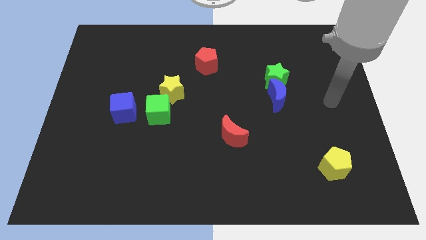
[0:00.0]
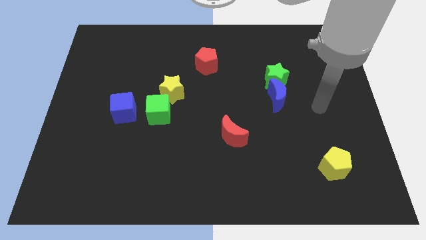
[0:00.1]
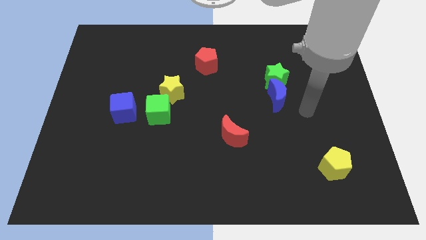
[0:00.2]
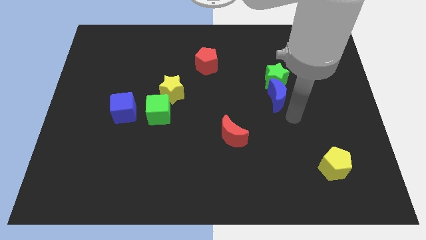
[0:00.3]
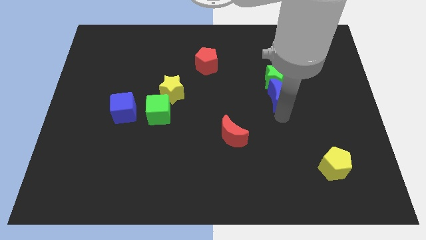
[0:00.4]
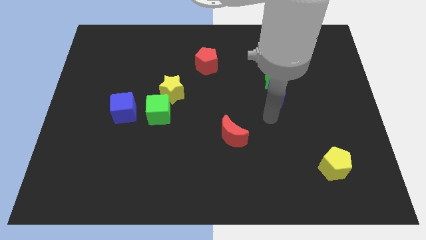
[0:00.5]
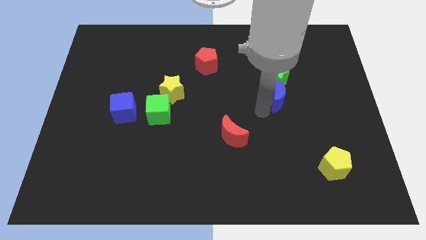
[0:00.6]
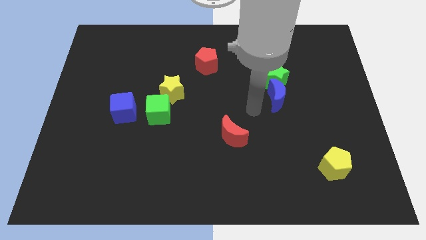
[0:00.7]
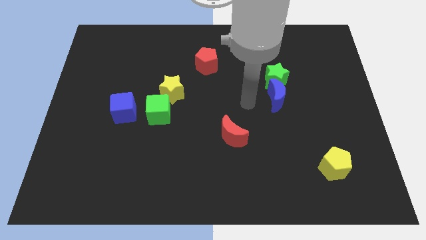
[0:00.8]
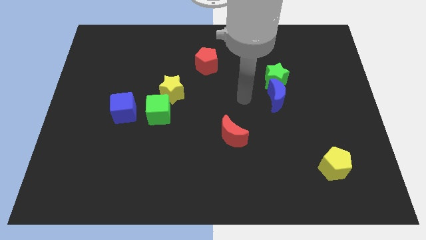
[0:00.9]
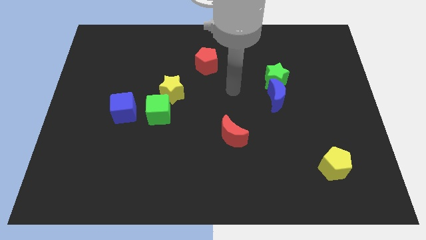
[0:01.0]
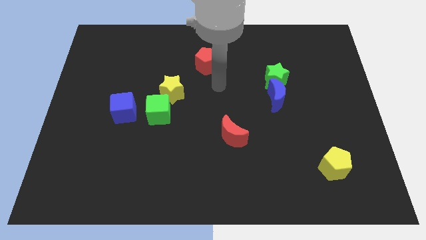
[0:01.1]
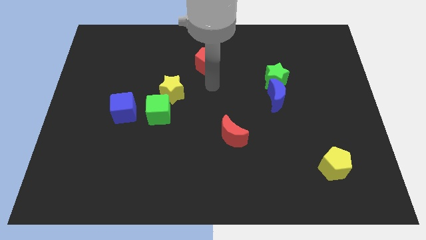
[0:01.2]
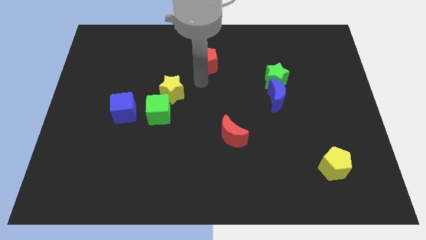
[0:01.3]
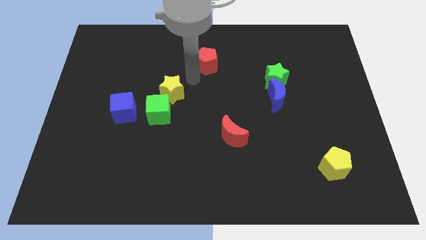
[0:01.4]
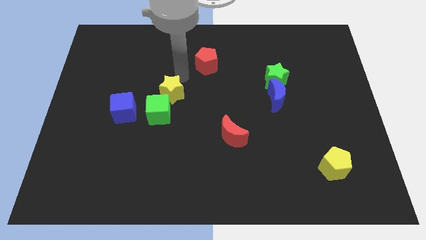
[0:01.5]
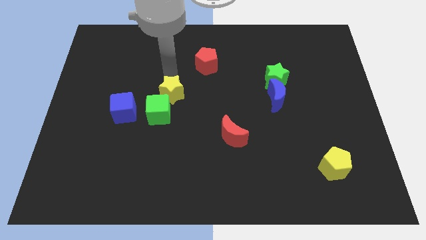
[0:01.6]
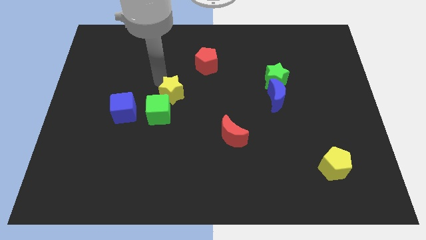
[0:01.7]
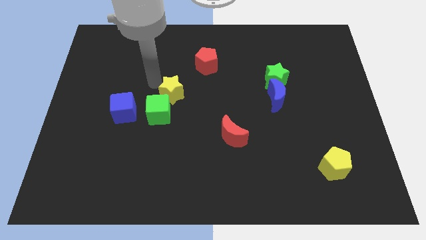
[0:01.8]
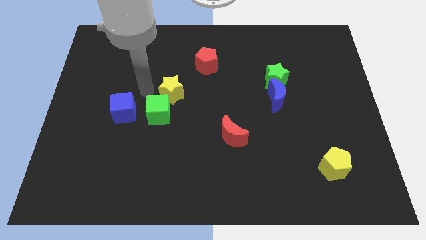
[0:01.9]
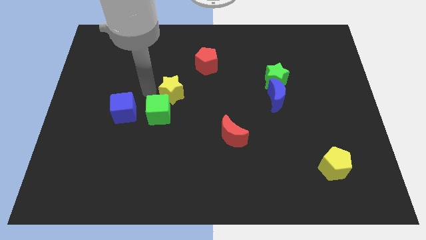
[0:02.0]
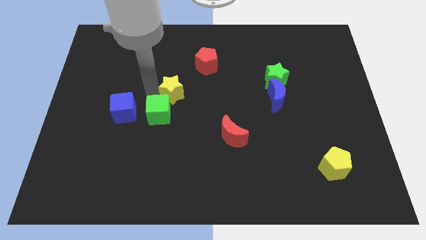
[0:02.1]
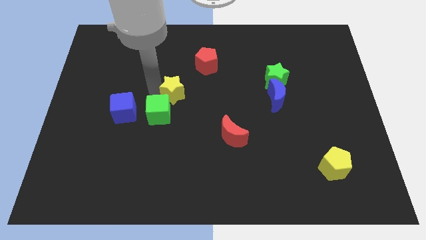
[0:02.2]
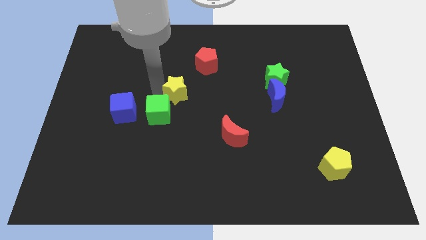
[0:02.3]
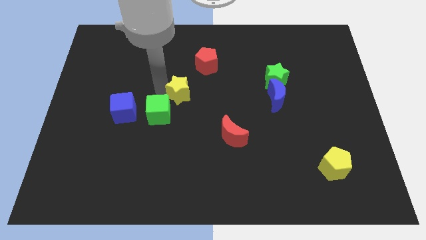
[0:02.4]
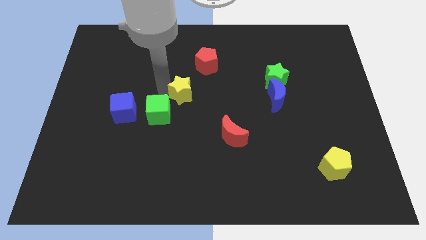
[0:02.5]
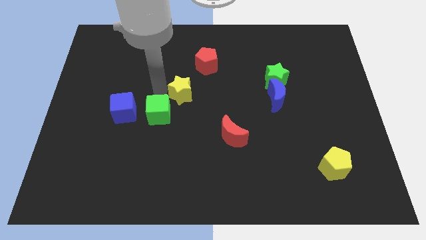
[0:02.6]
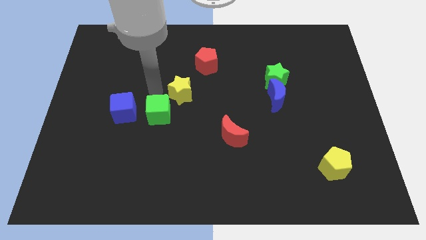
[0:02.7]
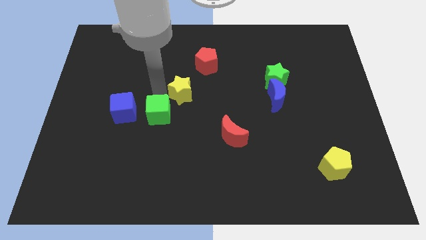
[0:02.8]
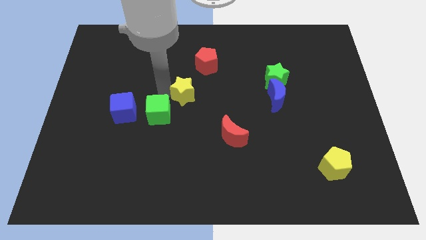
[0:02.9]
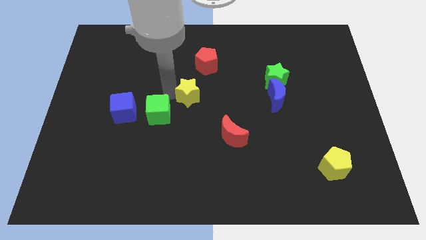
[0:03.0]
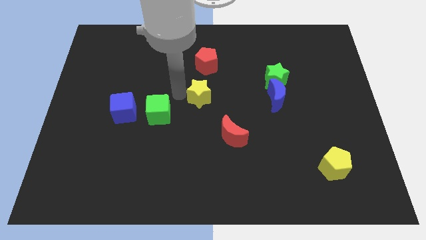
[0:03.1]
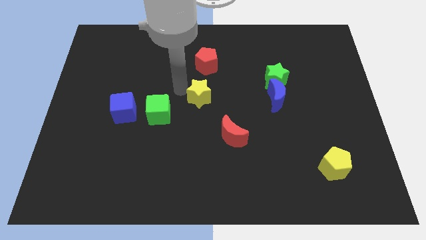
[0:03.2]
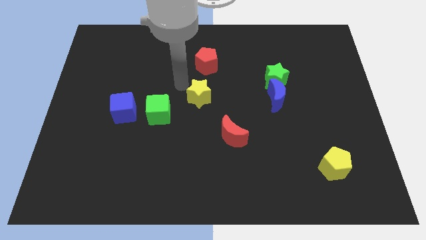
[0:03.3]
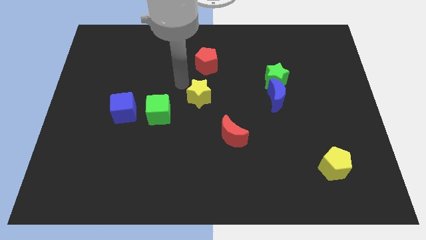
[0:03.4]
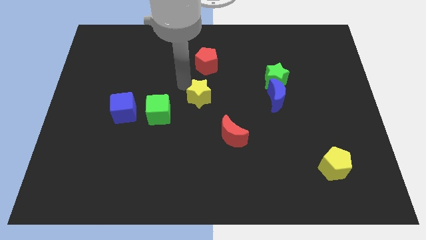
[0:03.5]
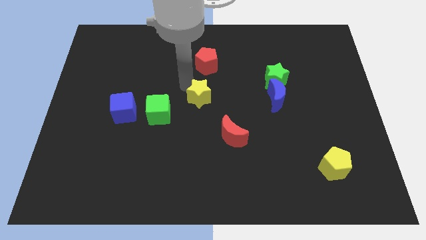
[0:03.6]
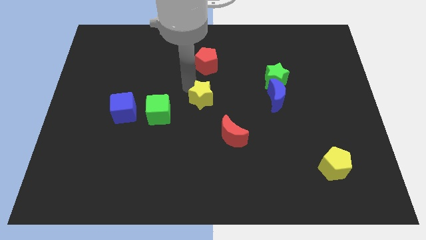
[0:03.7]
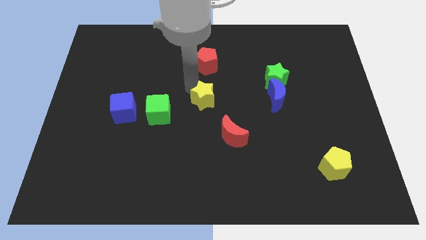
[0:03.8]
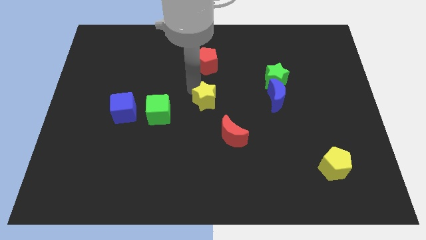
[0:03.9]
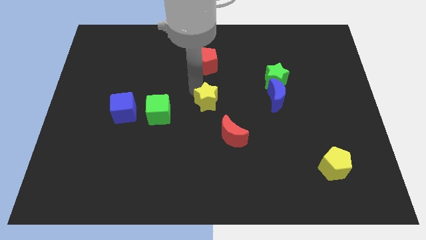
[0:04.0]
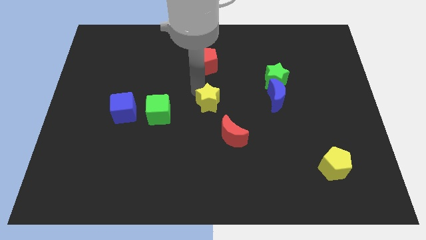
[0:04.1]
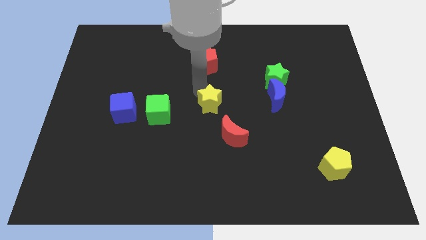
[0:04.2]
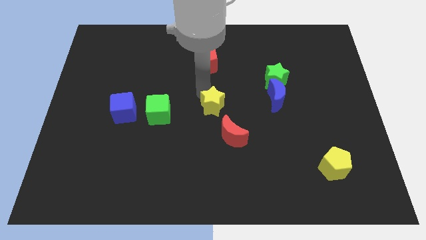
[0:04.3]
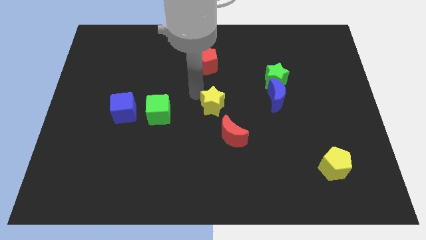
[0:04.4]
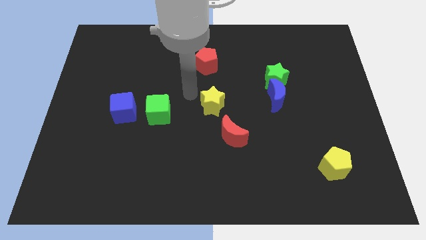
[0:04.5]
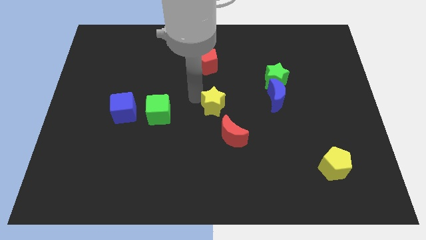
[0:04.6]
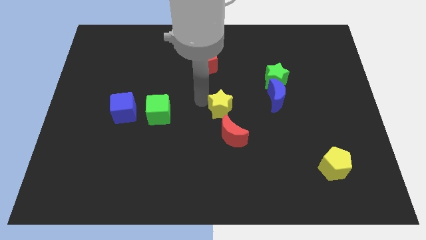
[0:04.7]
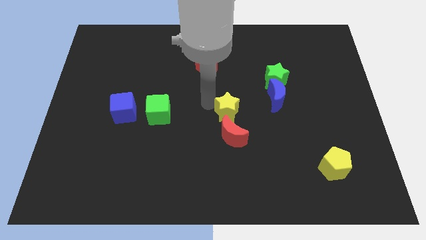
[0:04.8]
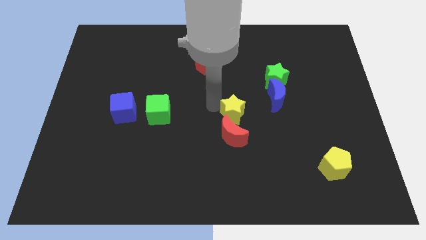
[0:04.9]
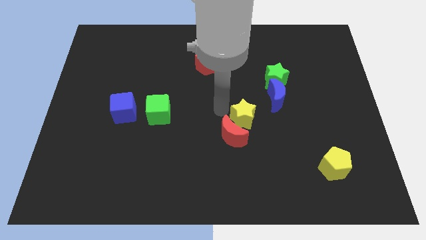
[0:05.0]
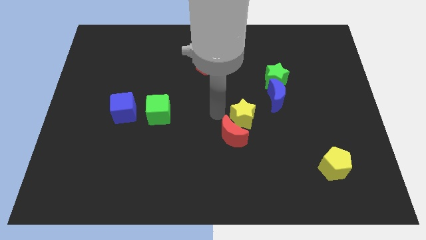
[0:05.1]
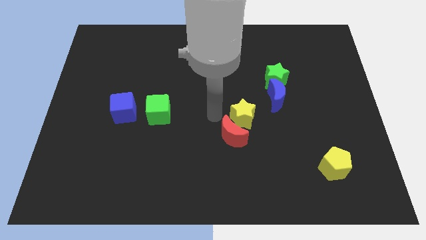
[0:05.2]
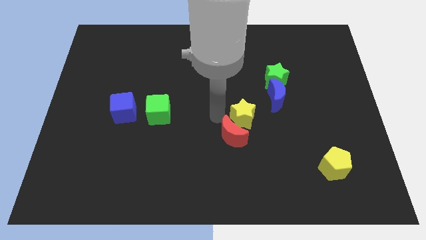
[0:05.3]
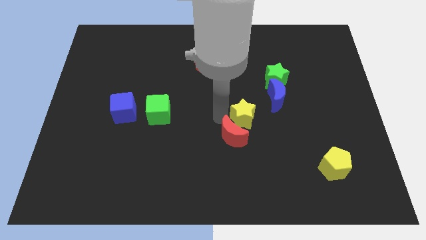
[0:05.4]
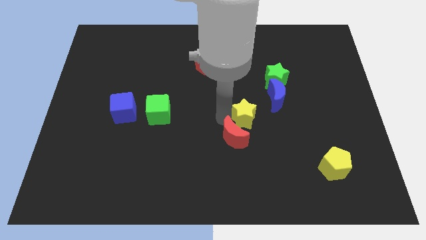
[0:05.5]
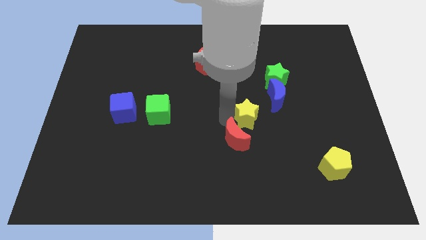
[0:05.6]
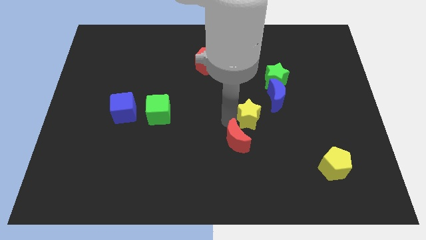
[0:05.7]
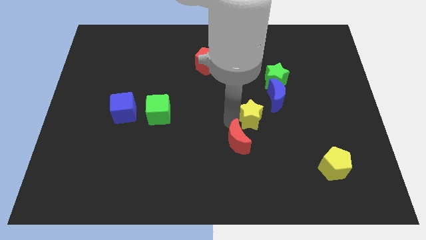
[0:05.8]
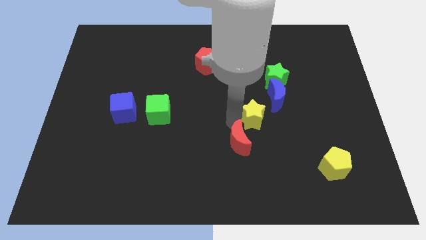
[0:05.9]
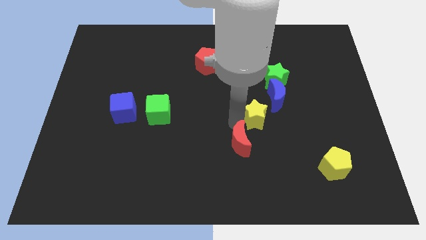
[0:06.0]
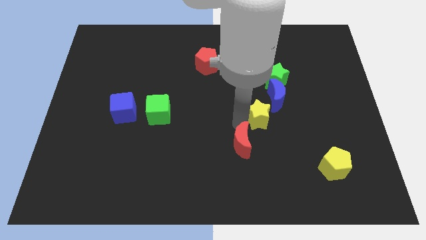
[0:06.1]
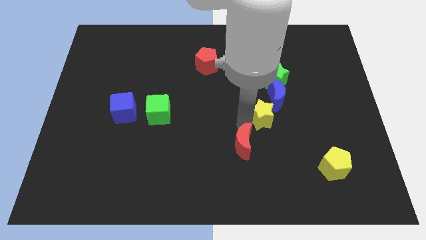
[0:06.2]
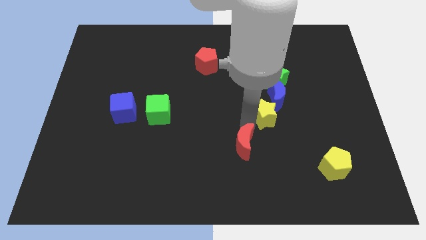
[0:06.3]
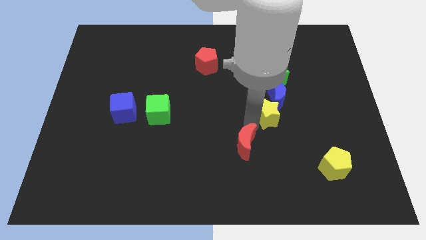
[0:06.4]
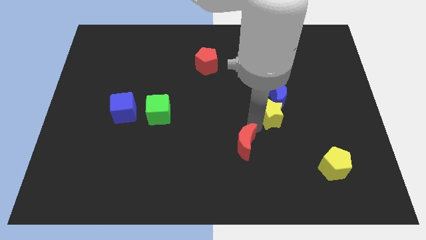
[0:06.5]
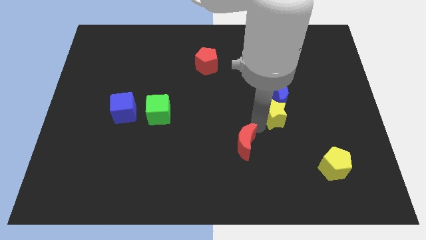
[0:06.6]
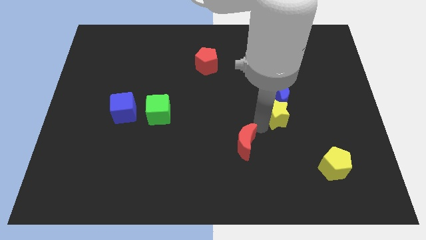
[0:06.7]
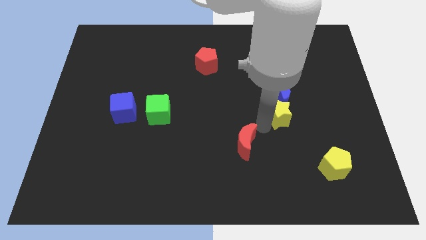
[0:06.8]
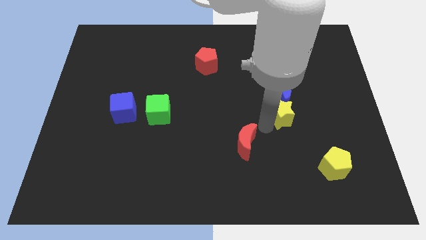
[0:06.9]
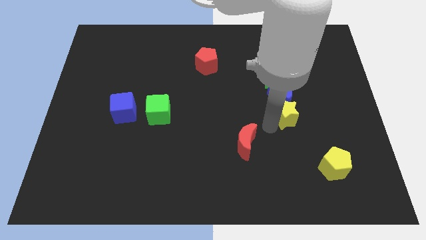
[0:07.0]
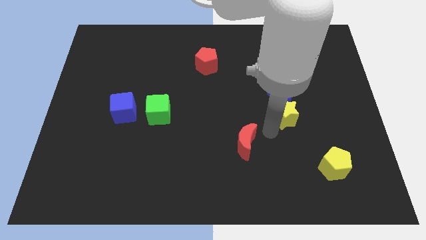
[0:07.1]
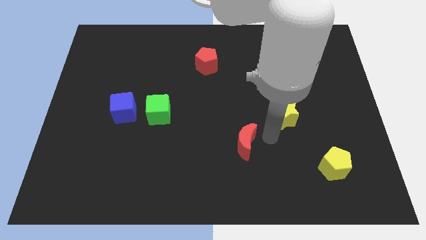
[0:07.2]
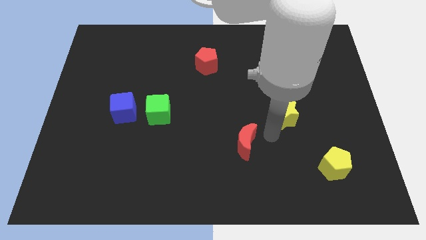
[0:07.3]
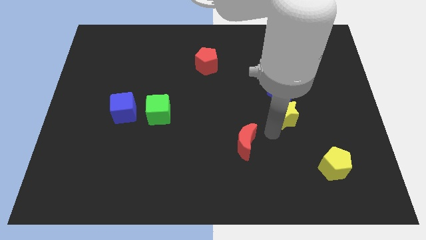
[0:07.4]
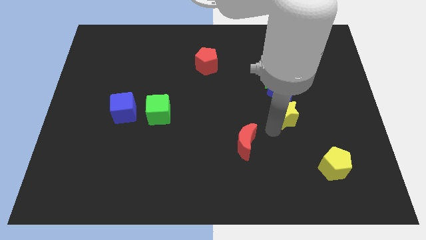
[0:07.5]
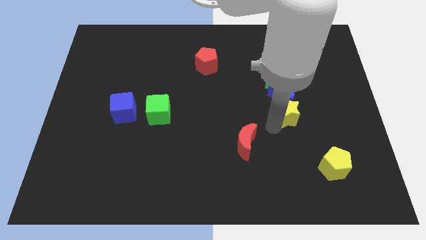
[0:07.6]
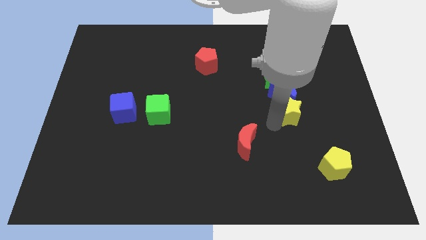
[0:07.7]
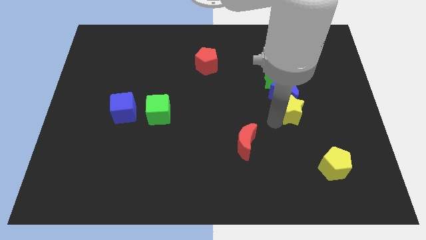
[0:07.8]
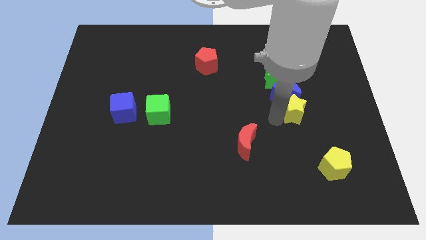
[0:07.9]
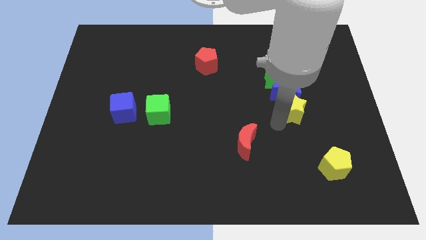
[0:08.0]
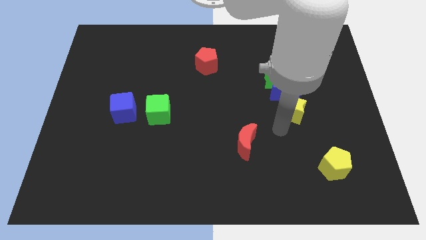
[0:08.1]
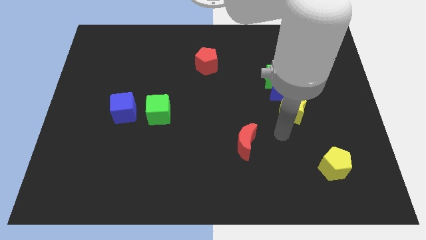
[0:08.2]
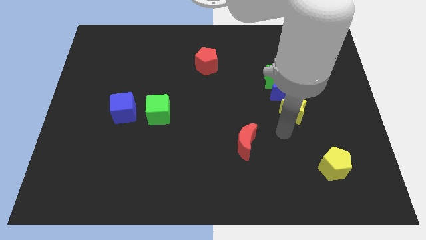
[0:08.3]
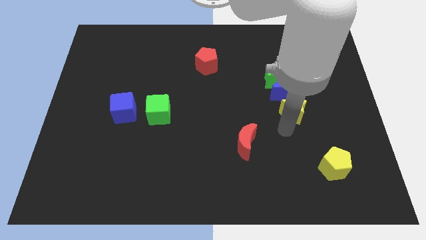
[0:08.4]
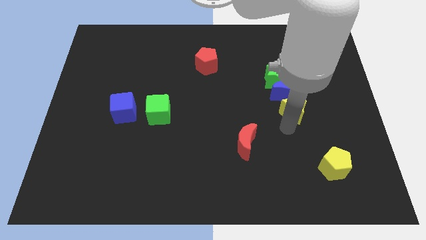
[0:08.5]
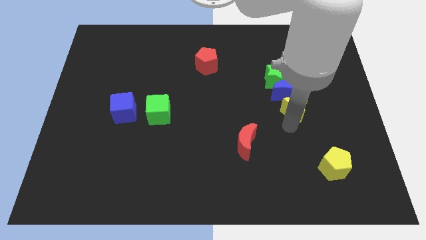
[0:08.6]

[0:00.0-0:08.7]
push the yellow star diagonally down and to the right of the green star
